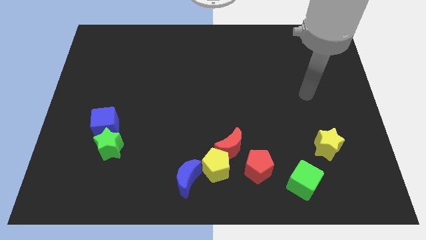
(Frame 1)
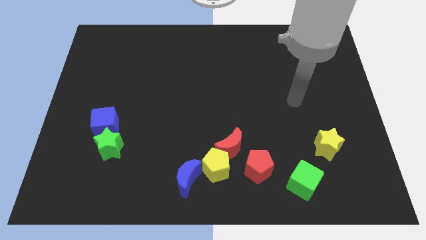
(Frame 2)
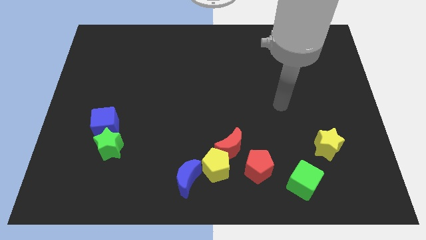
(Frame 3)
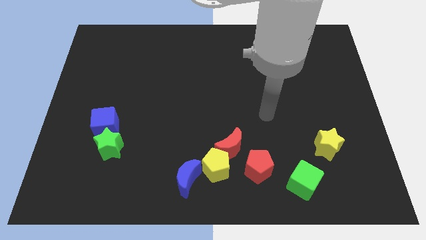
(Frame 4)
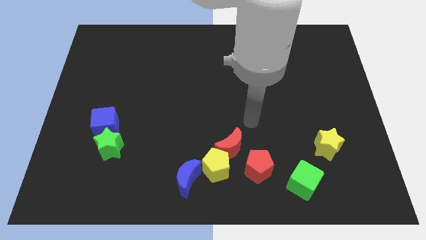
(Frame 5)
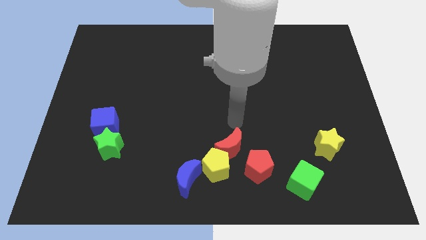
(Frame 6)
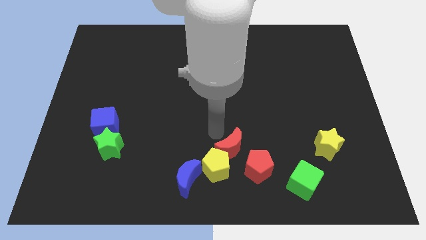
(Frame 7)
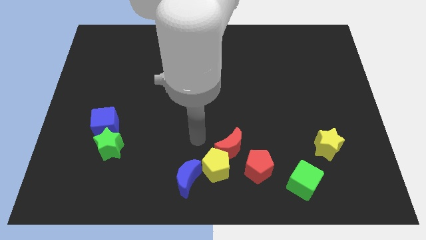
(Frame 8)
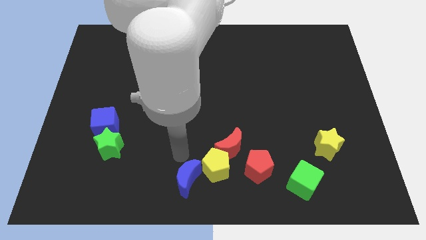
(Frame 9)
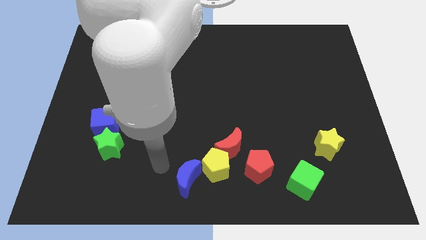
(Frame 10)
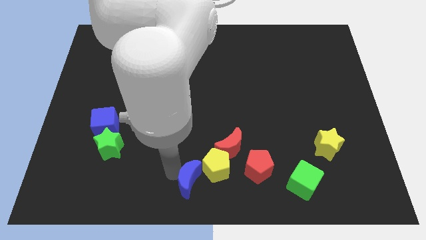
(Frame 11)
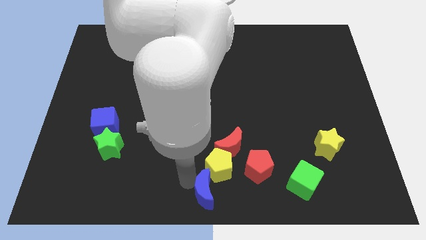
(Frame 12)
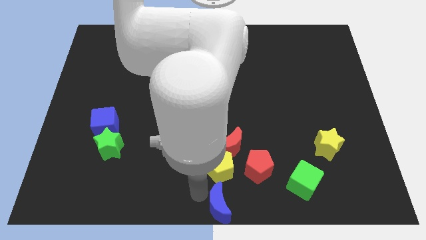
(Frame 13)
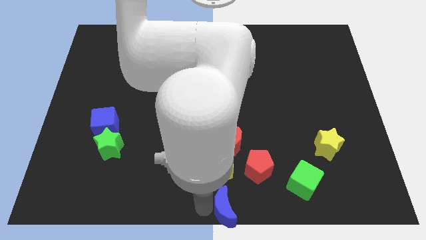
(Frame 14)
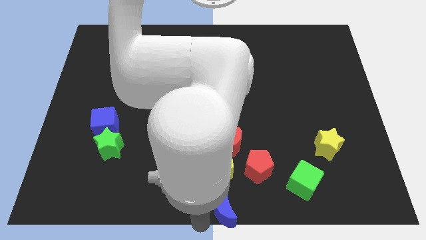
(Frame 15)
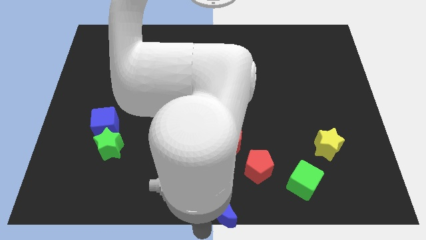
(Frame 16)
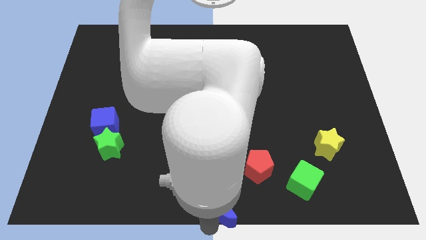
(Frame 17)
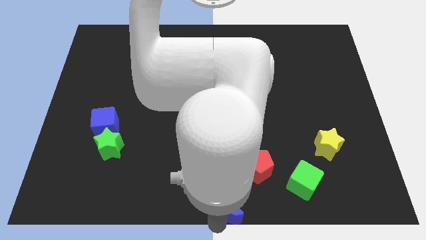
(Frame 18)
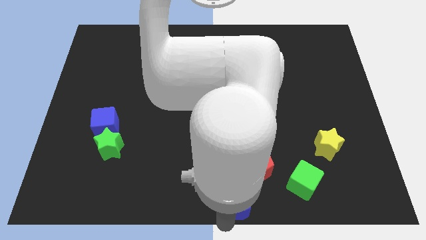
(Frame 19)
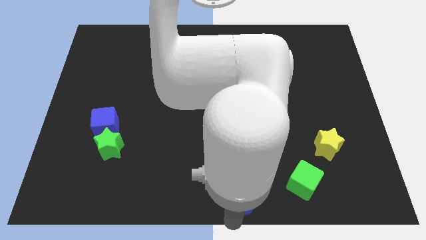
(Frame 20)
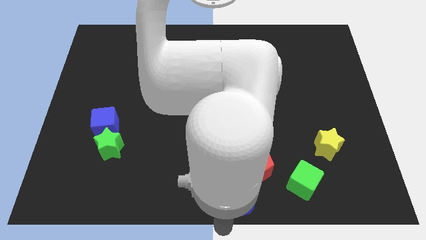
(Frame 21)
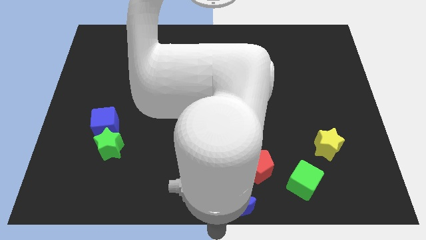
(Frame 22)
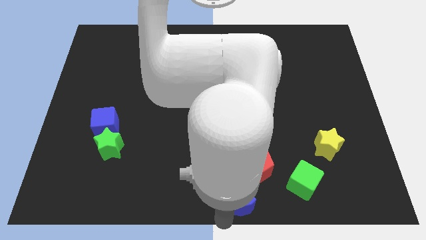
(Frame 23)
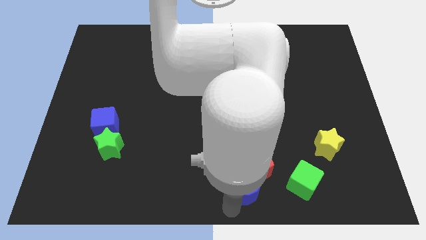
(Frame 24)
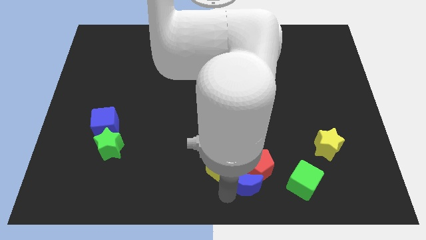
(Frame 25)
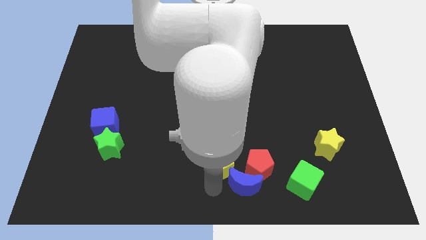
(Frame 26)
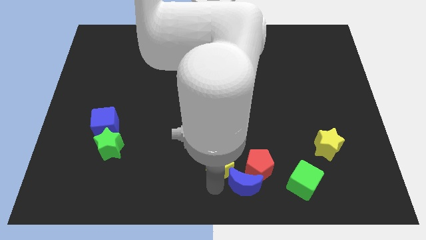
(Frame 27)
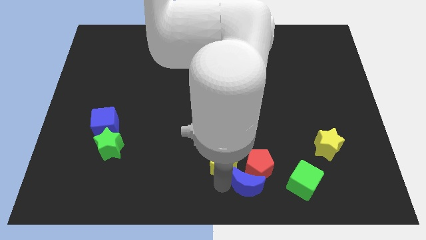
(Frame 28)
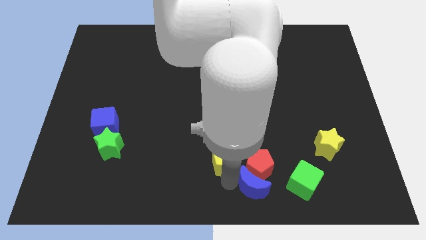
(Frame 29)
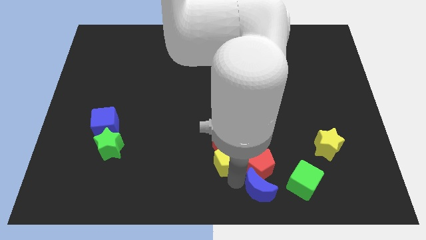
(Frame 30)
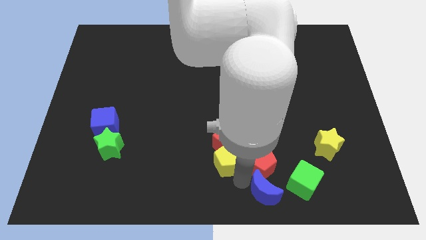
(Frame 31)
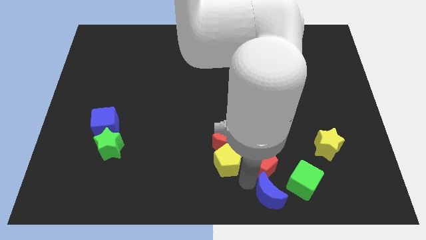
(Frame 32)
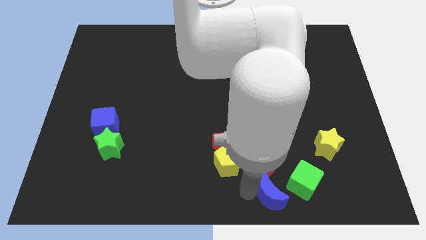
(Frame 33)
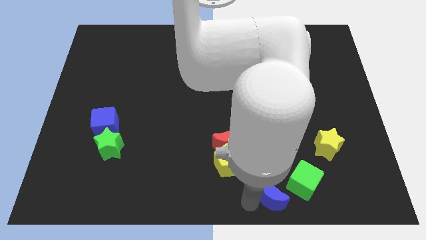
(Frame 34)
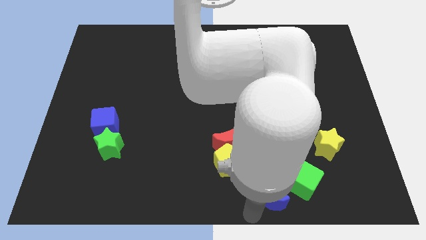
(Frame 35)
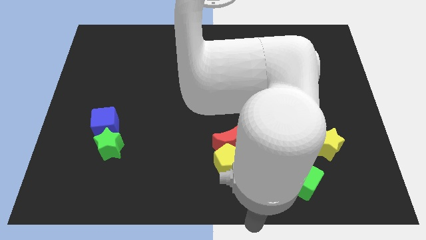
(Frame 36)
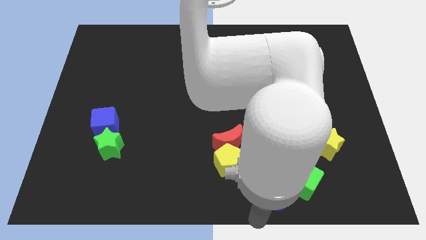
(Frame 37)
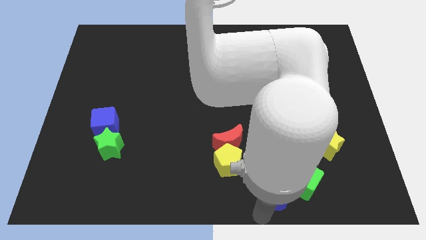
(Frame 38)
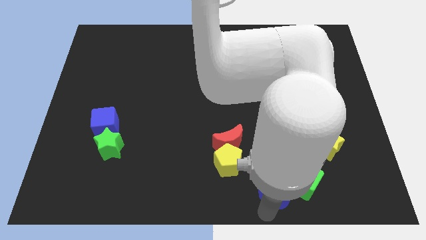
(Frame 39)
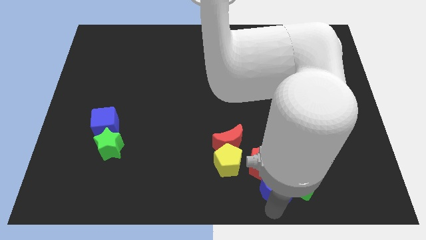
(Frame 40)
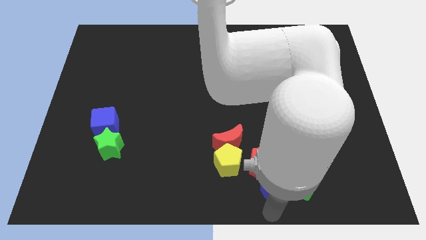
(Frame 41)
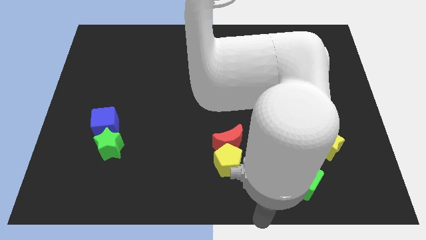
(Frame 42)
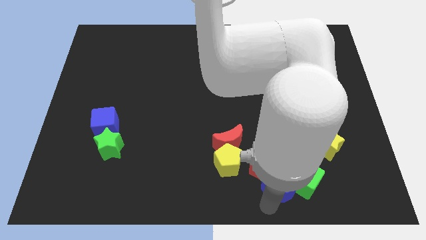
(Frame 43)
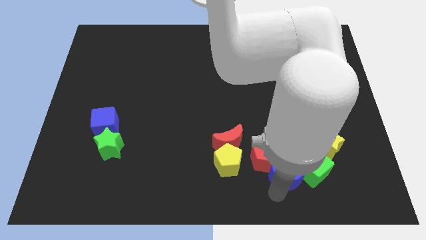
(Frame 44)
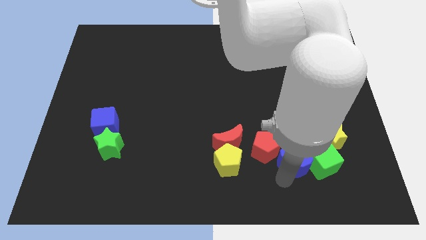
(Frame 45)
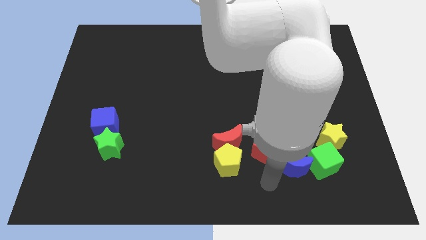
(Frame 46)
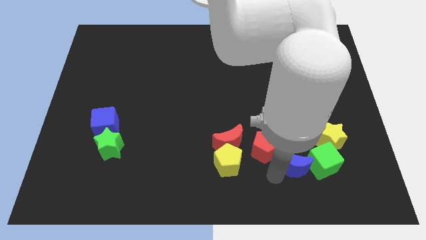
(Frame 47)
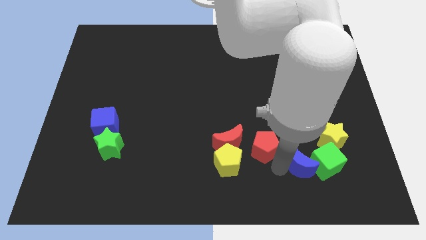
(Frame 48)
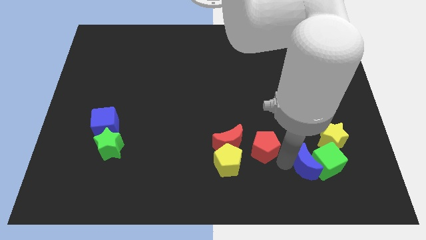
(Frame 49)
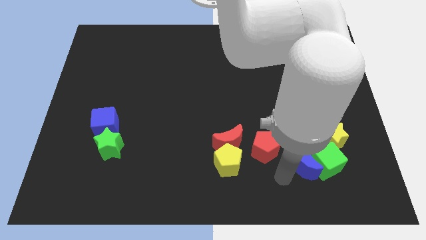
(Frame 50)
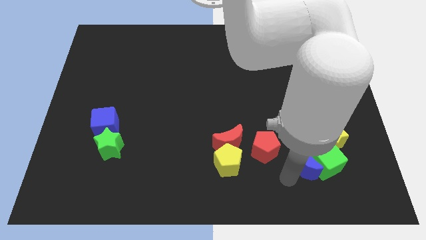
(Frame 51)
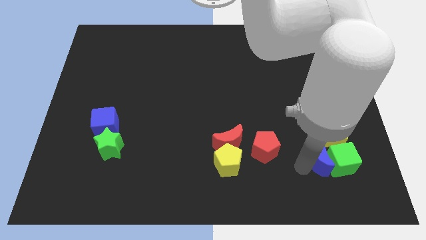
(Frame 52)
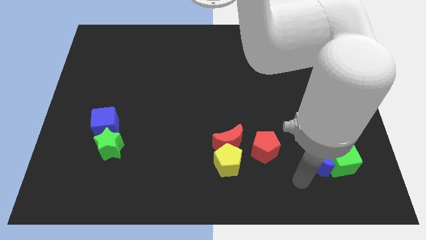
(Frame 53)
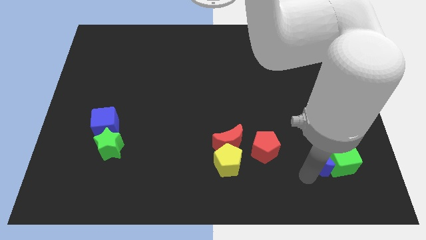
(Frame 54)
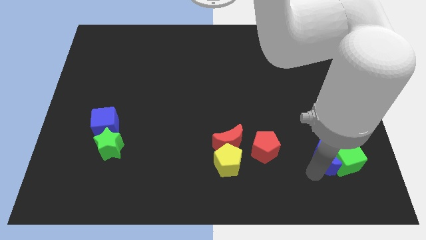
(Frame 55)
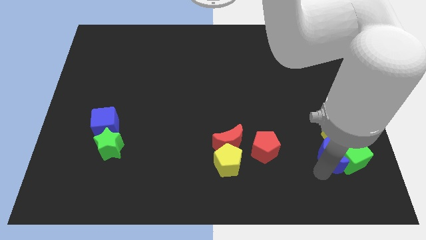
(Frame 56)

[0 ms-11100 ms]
slide the blue moon towards the yellow star

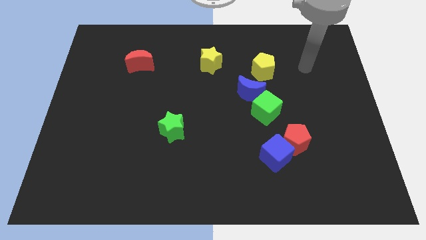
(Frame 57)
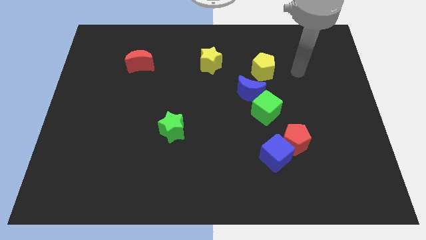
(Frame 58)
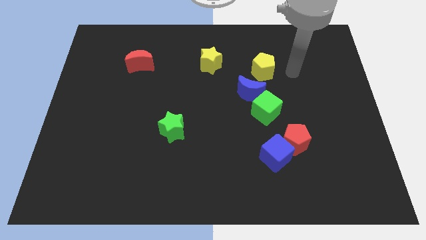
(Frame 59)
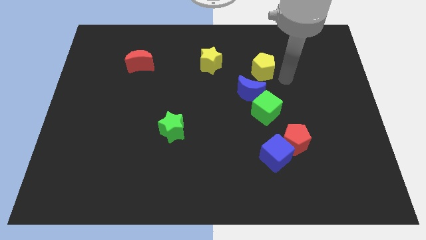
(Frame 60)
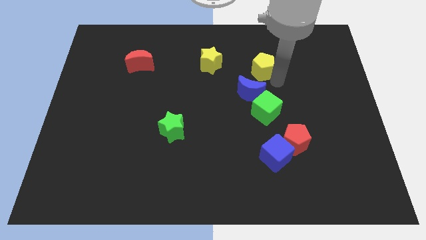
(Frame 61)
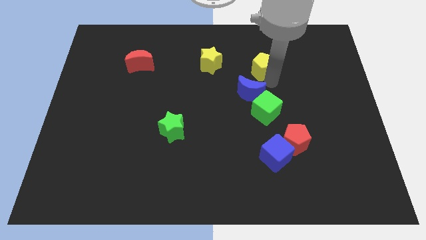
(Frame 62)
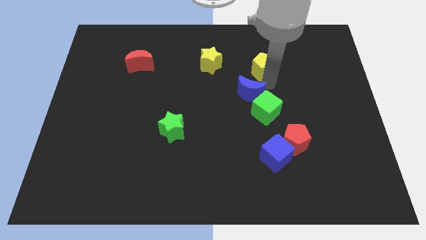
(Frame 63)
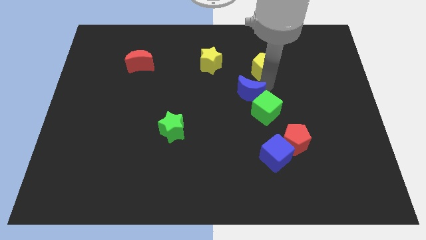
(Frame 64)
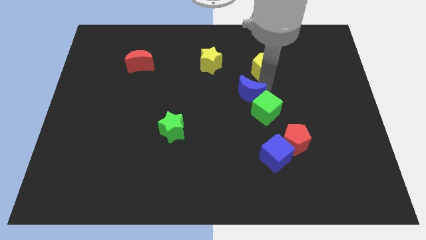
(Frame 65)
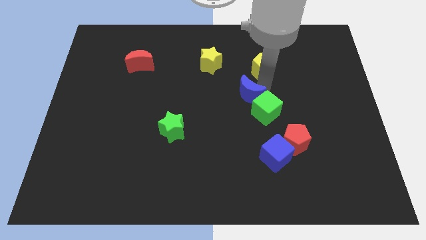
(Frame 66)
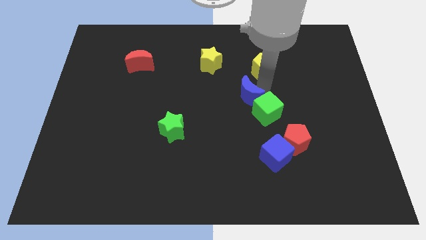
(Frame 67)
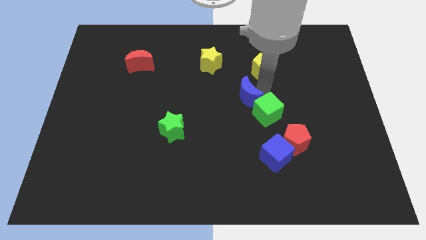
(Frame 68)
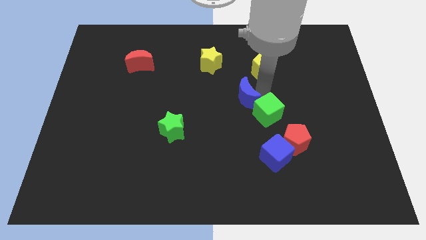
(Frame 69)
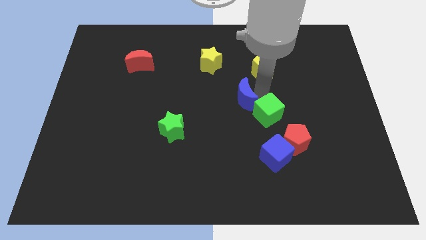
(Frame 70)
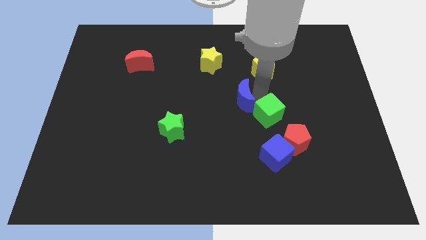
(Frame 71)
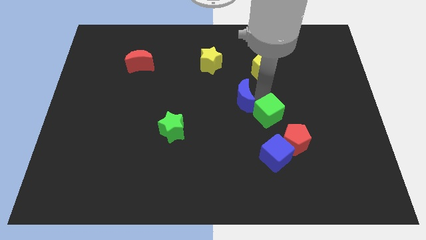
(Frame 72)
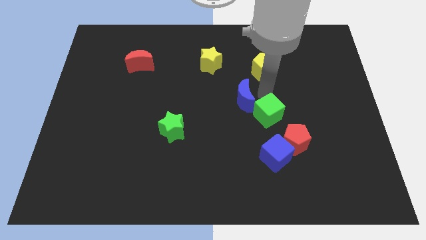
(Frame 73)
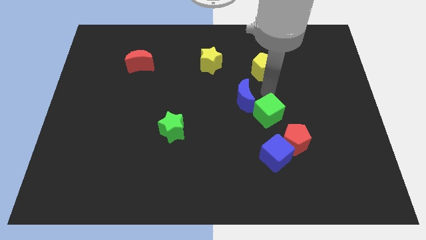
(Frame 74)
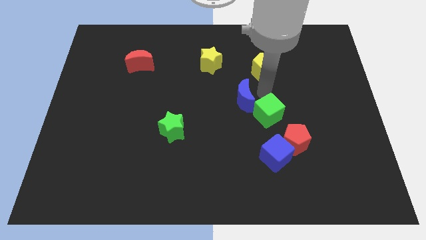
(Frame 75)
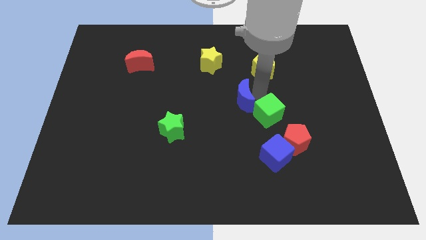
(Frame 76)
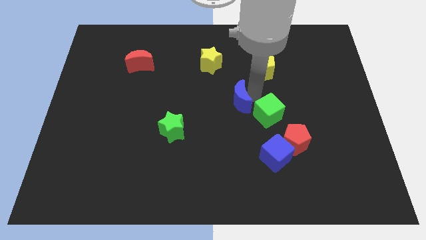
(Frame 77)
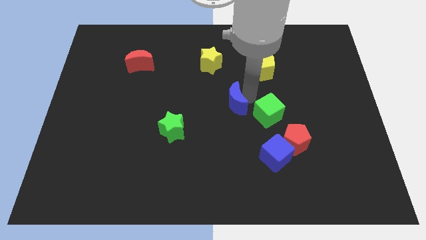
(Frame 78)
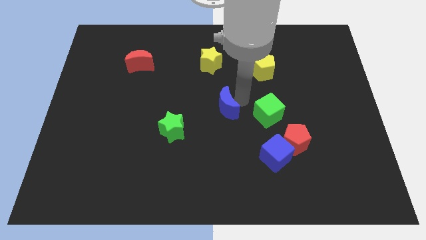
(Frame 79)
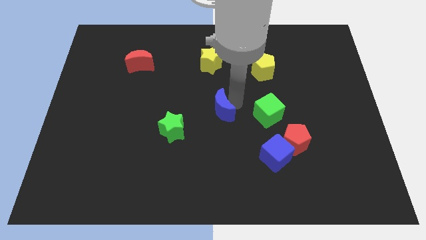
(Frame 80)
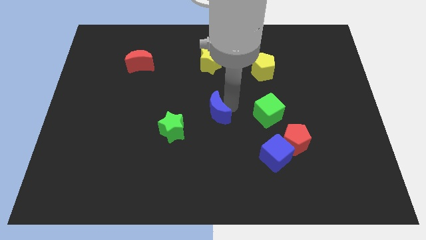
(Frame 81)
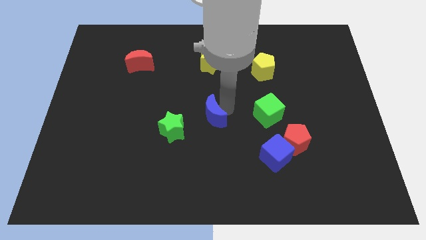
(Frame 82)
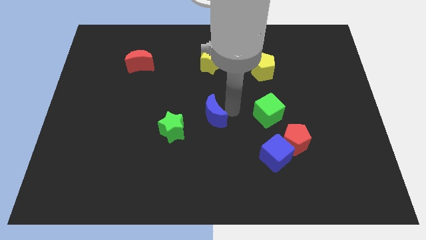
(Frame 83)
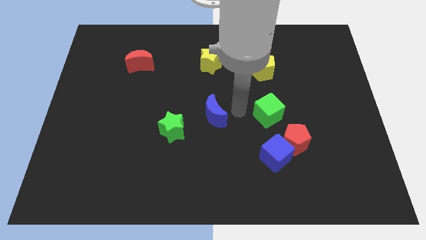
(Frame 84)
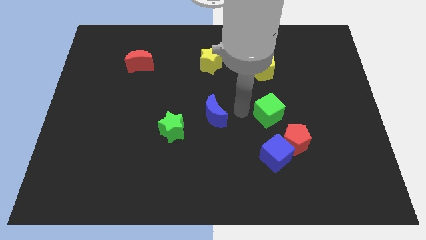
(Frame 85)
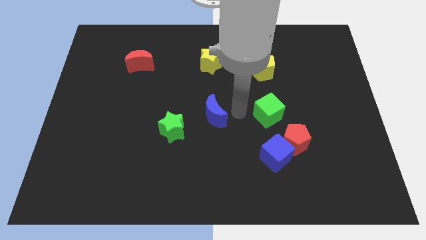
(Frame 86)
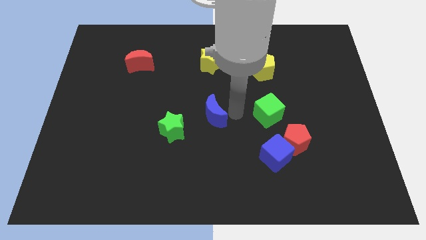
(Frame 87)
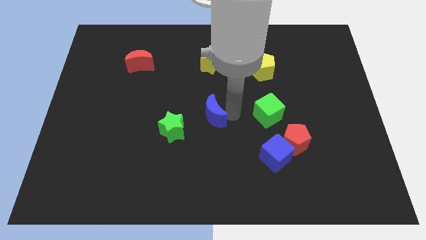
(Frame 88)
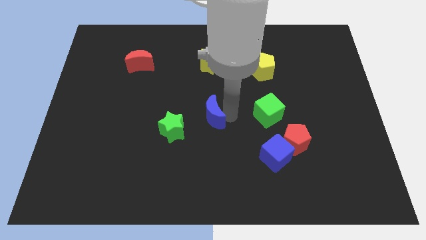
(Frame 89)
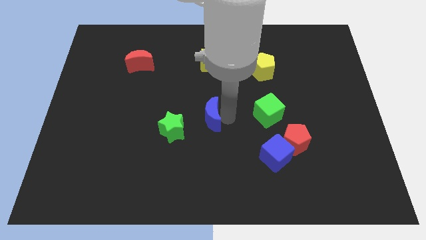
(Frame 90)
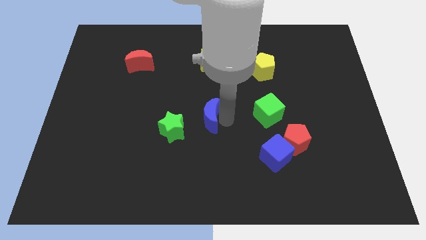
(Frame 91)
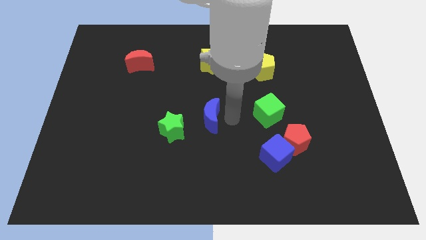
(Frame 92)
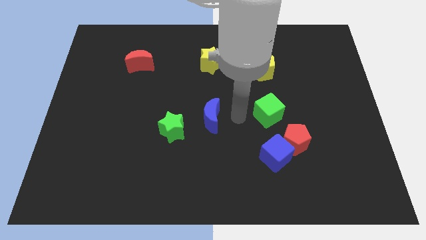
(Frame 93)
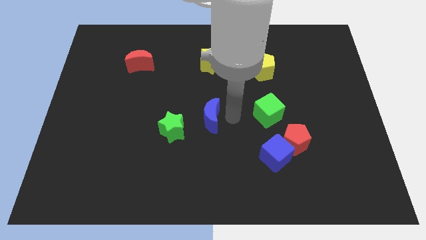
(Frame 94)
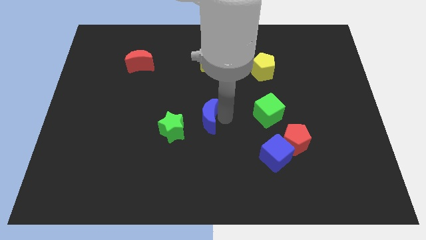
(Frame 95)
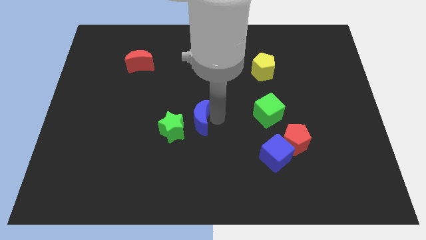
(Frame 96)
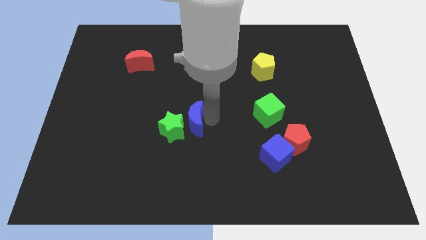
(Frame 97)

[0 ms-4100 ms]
slide the blue moon towards the green star
